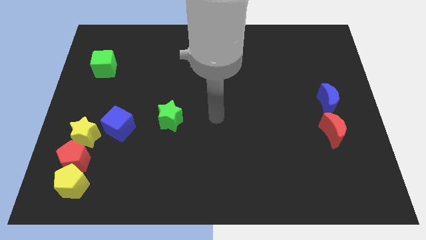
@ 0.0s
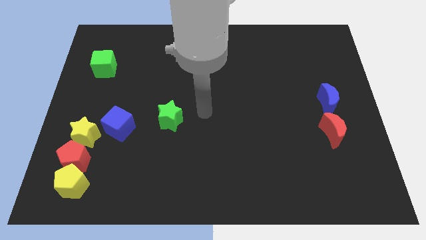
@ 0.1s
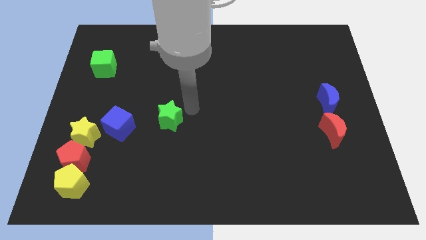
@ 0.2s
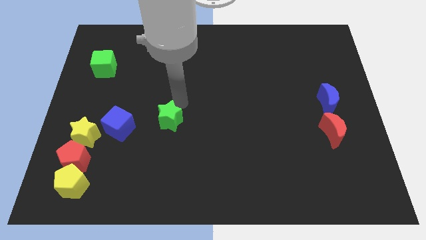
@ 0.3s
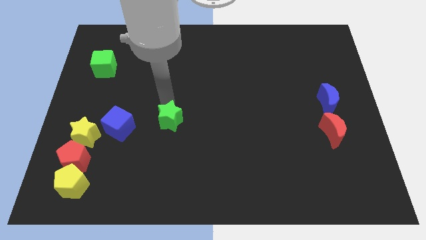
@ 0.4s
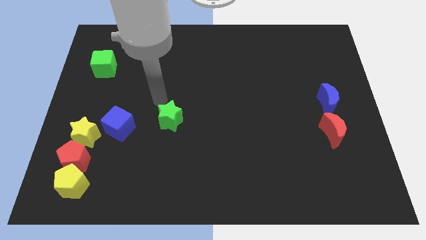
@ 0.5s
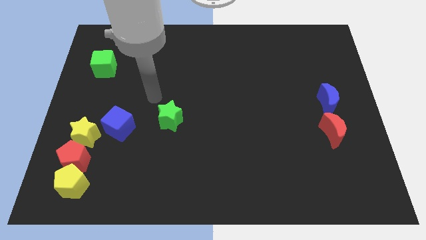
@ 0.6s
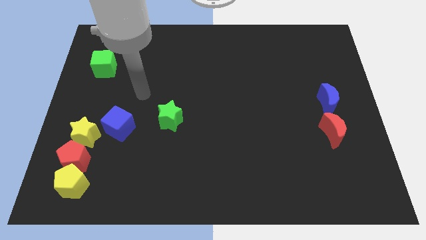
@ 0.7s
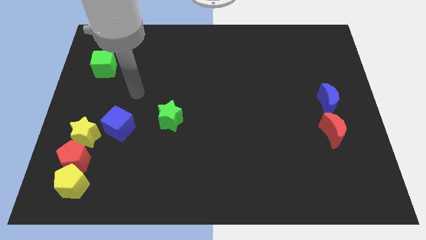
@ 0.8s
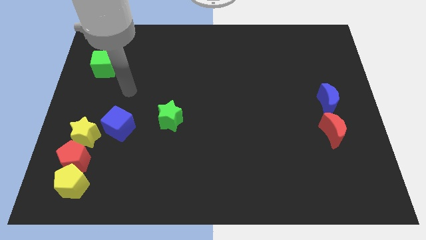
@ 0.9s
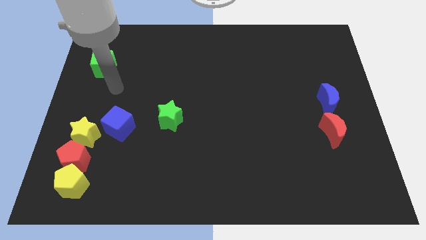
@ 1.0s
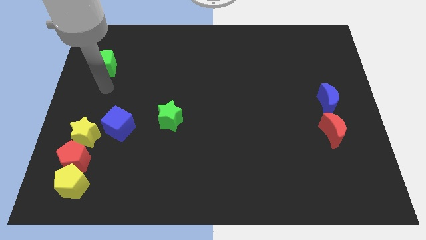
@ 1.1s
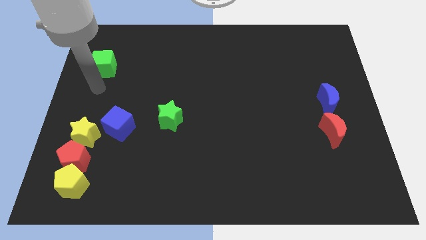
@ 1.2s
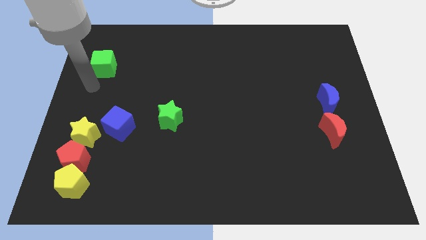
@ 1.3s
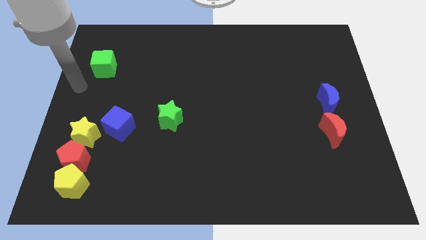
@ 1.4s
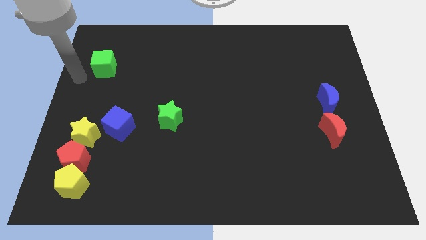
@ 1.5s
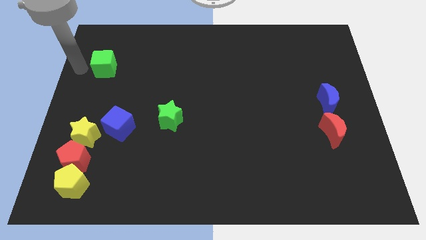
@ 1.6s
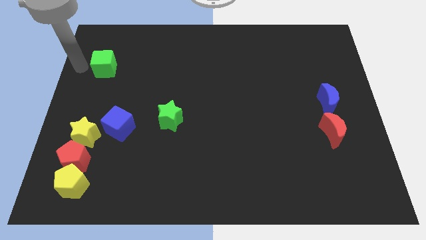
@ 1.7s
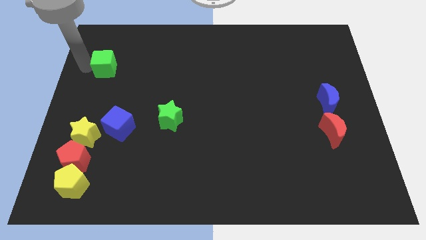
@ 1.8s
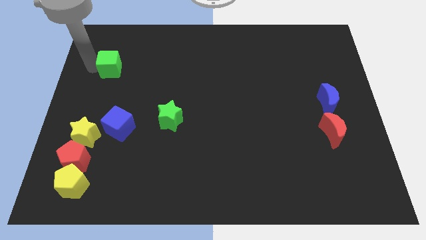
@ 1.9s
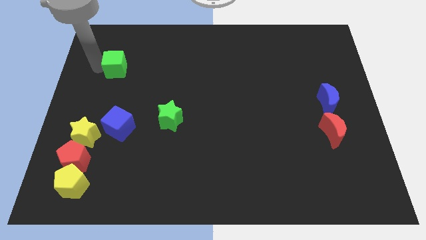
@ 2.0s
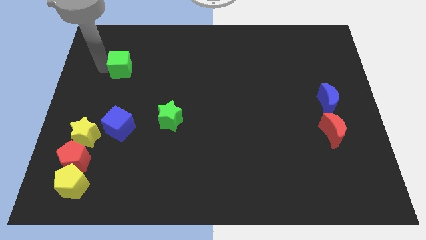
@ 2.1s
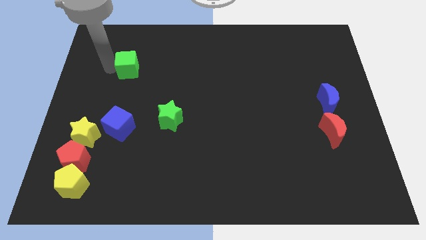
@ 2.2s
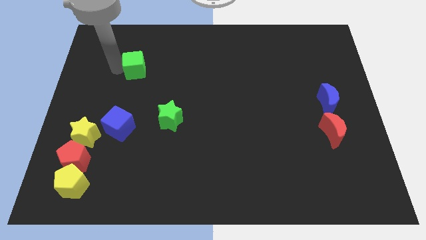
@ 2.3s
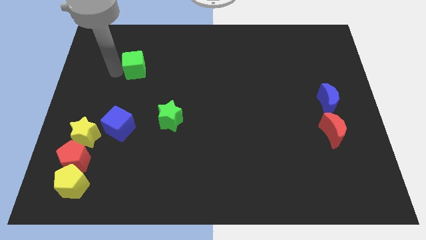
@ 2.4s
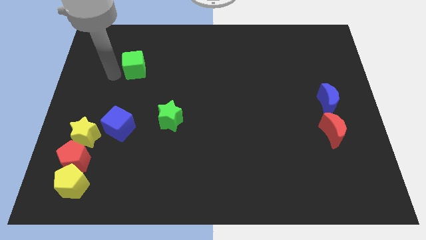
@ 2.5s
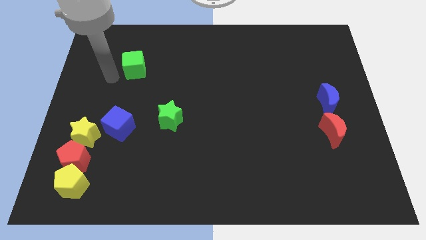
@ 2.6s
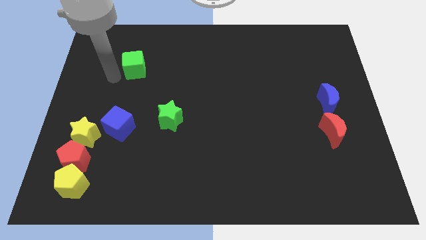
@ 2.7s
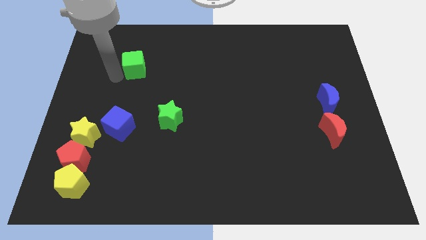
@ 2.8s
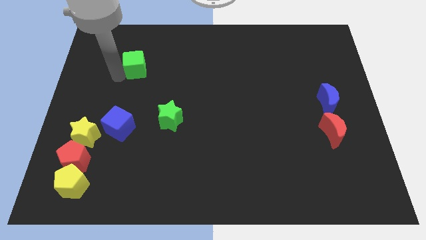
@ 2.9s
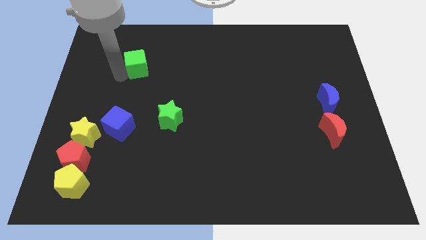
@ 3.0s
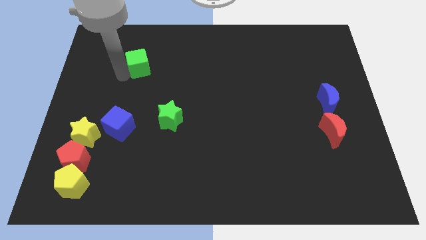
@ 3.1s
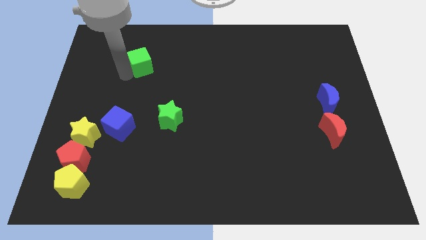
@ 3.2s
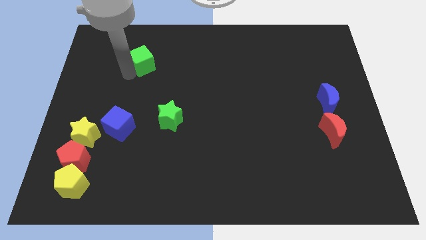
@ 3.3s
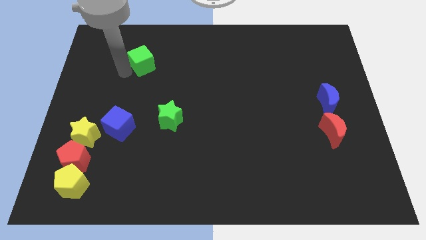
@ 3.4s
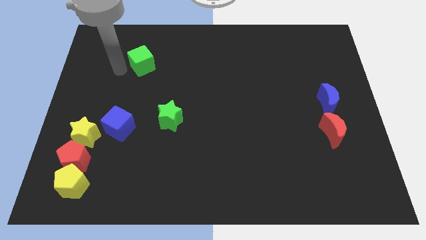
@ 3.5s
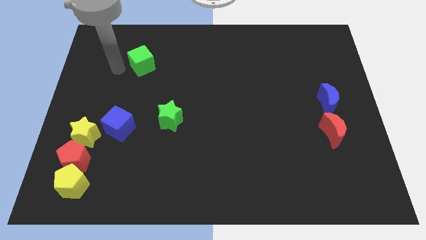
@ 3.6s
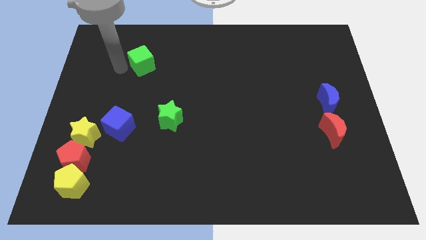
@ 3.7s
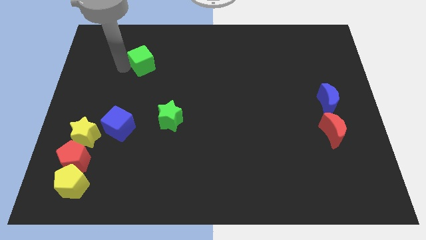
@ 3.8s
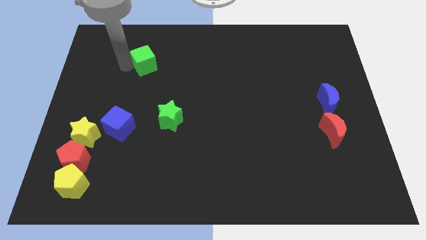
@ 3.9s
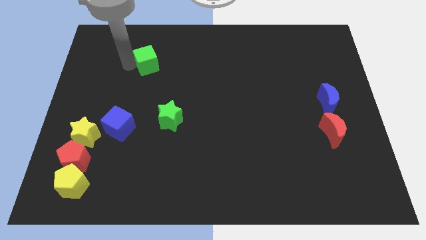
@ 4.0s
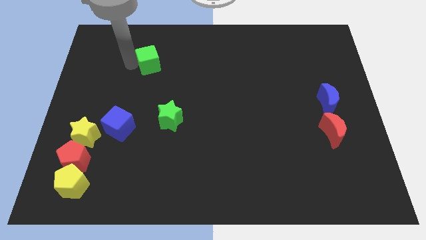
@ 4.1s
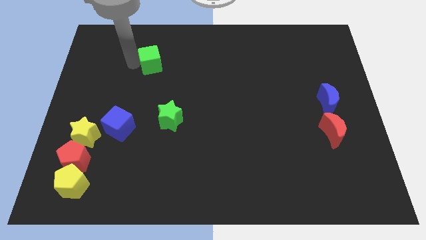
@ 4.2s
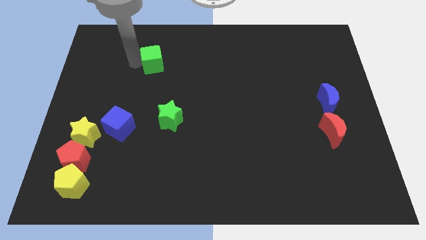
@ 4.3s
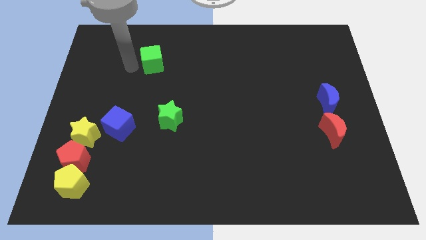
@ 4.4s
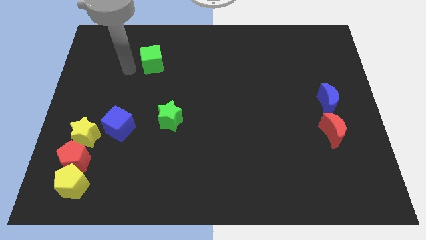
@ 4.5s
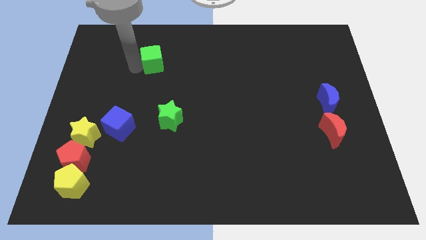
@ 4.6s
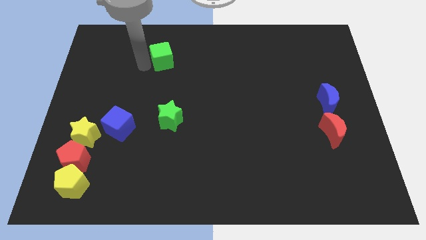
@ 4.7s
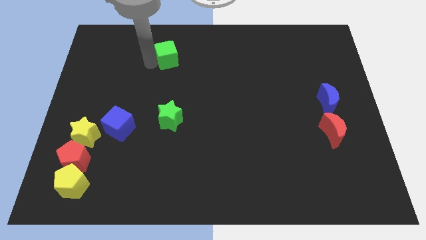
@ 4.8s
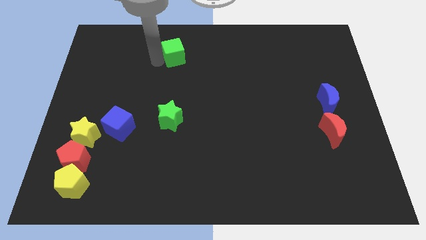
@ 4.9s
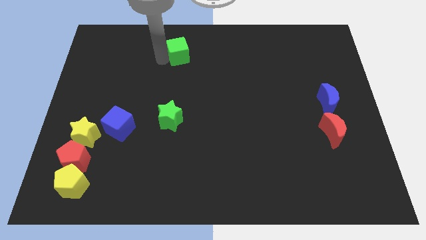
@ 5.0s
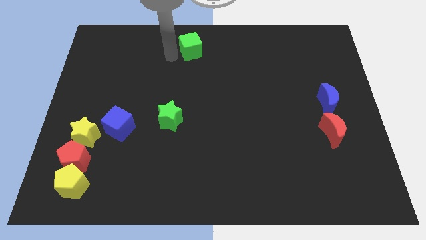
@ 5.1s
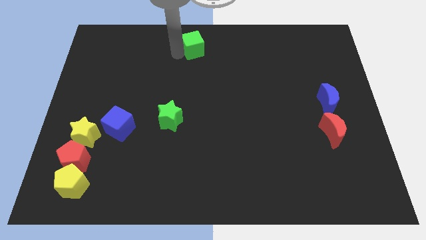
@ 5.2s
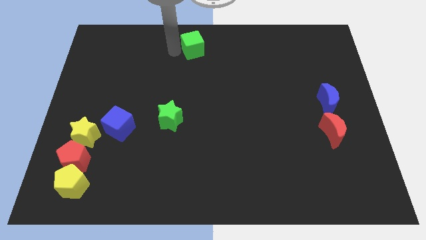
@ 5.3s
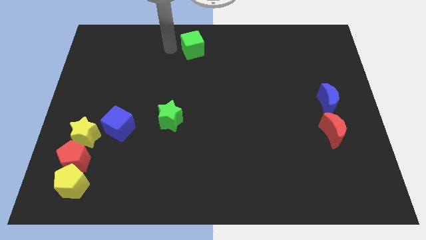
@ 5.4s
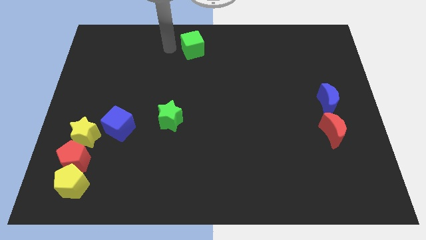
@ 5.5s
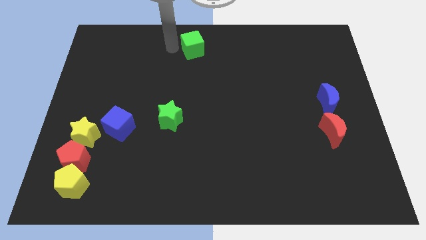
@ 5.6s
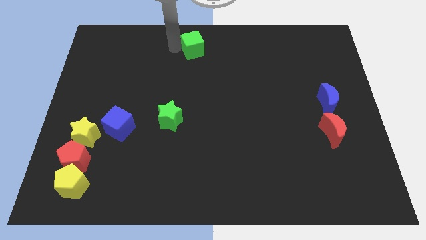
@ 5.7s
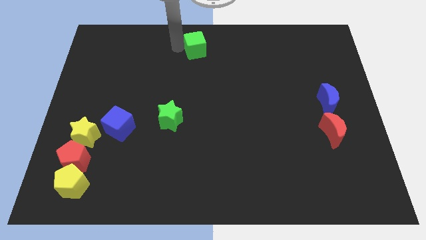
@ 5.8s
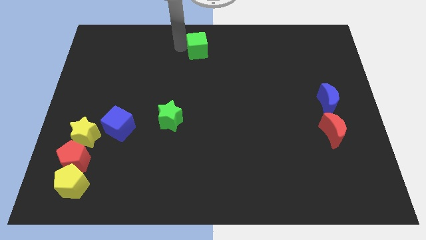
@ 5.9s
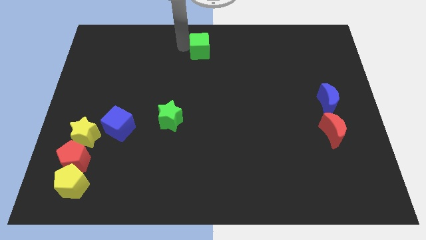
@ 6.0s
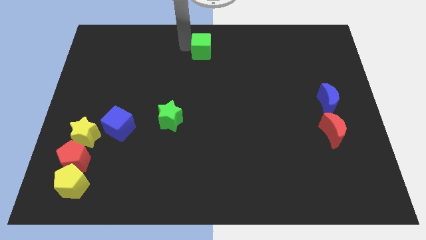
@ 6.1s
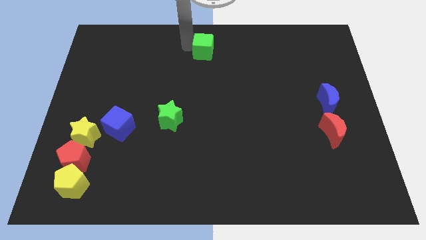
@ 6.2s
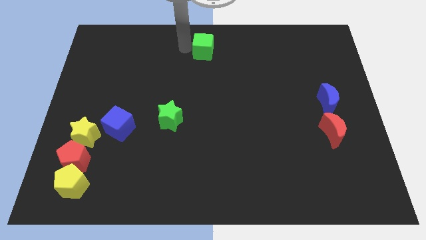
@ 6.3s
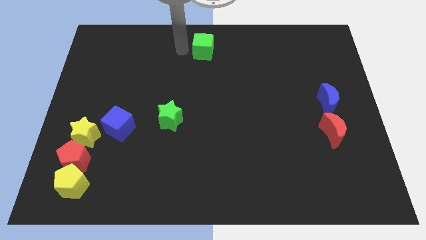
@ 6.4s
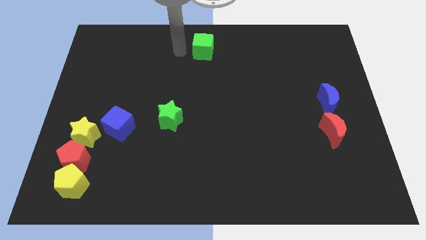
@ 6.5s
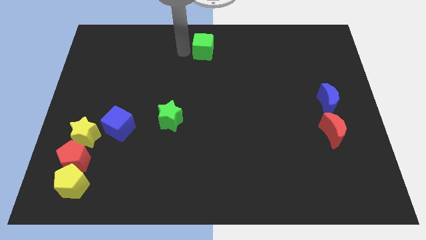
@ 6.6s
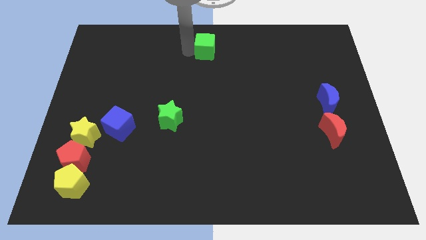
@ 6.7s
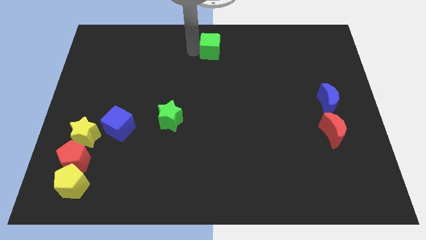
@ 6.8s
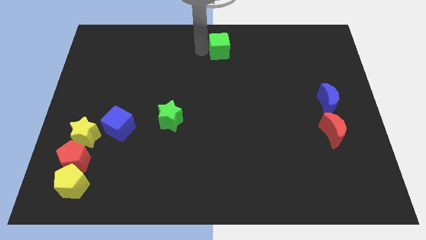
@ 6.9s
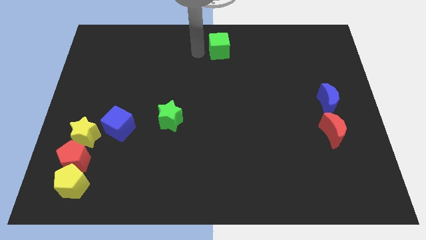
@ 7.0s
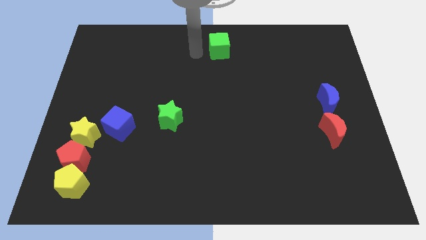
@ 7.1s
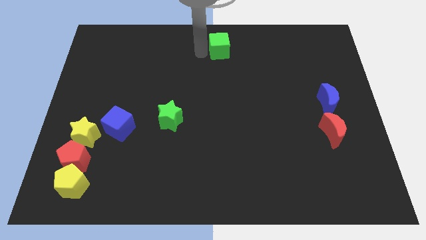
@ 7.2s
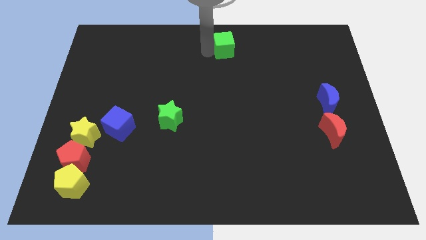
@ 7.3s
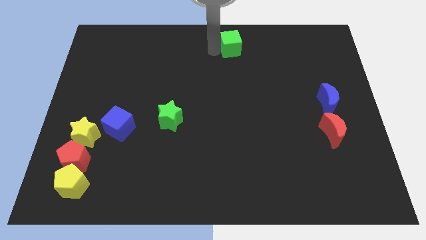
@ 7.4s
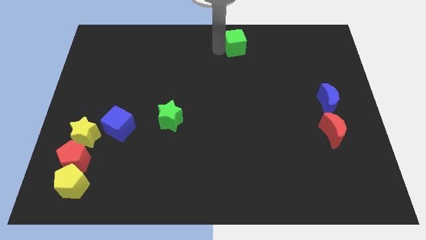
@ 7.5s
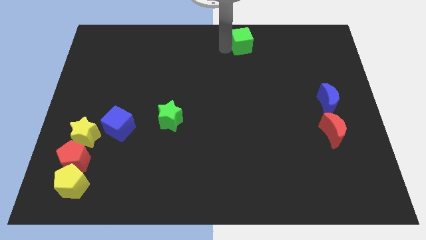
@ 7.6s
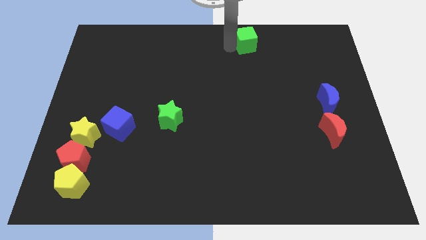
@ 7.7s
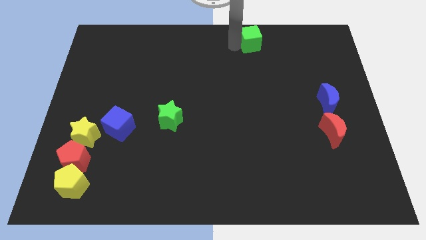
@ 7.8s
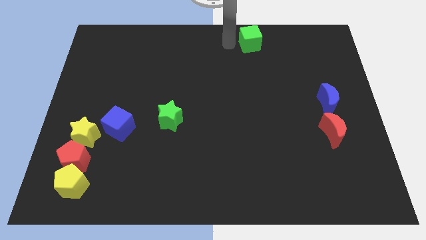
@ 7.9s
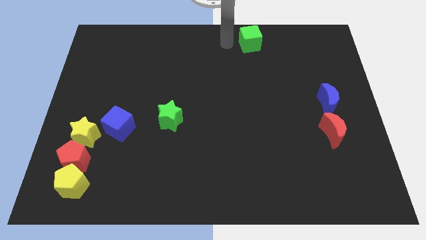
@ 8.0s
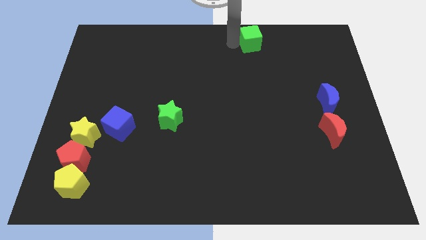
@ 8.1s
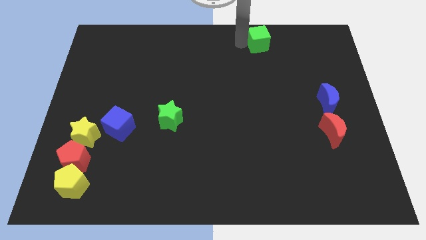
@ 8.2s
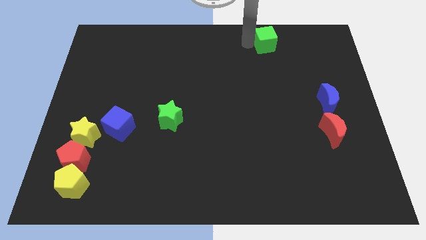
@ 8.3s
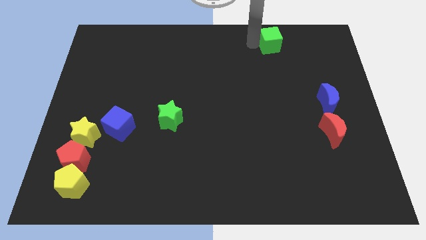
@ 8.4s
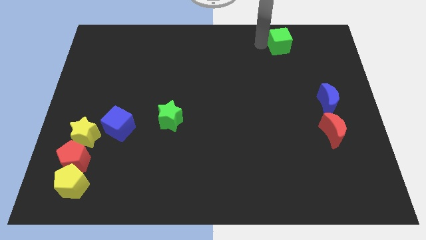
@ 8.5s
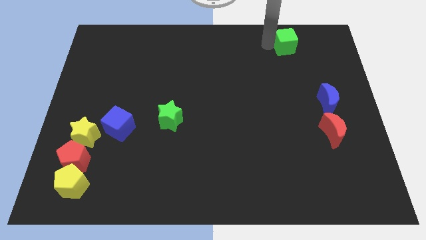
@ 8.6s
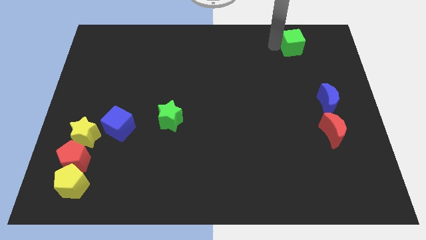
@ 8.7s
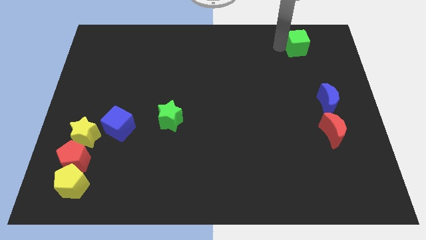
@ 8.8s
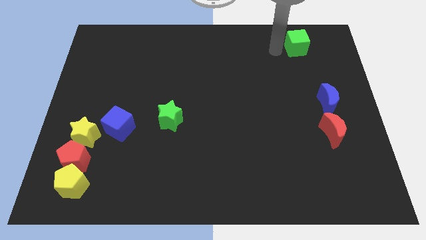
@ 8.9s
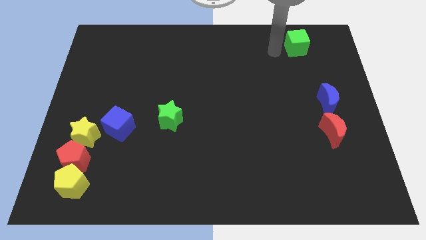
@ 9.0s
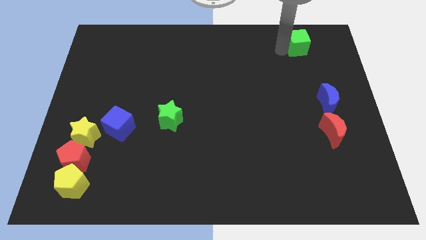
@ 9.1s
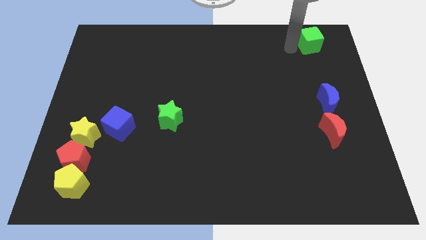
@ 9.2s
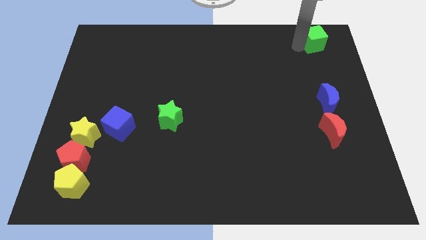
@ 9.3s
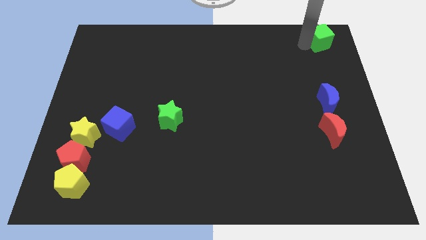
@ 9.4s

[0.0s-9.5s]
push the green cube to the top right
